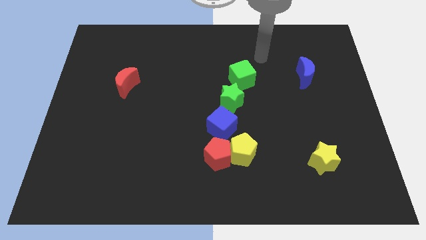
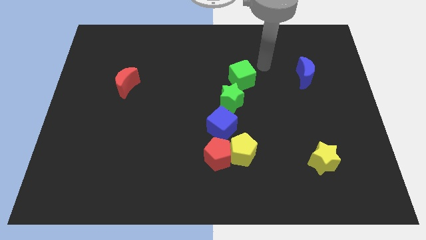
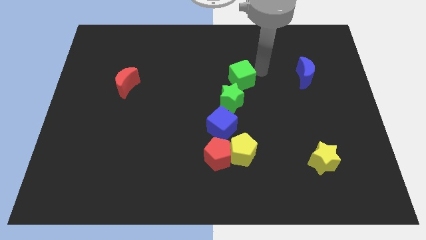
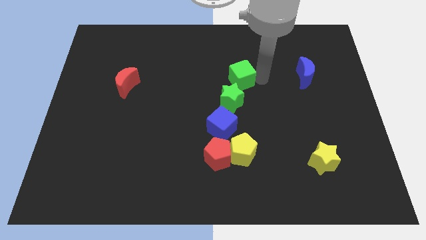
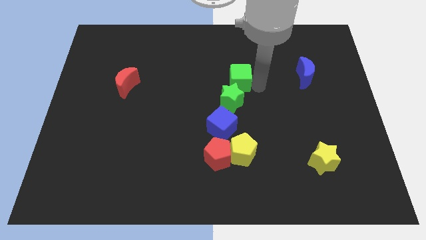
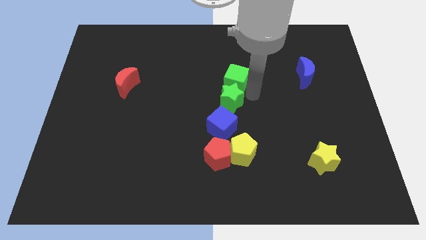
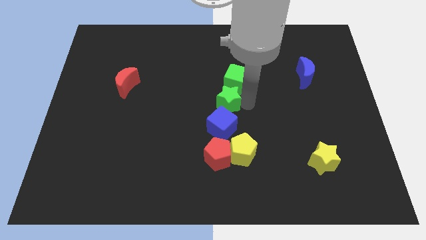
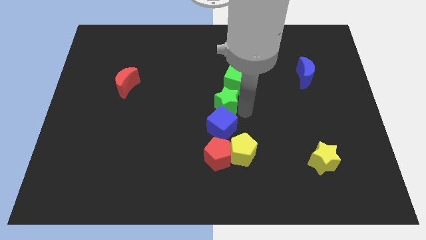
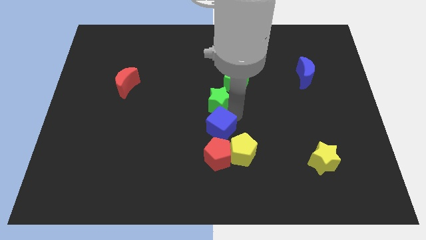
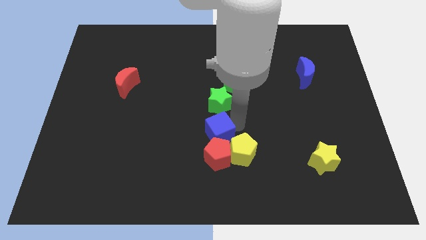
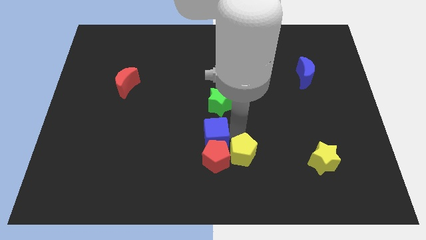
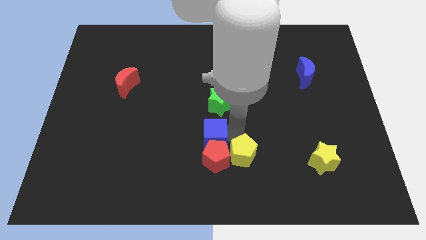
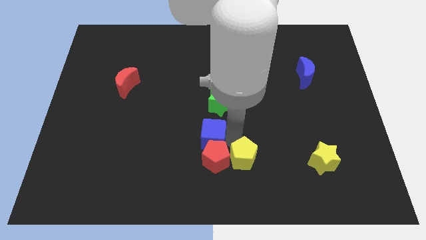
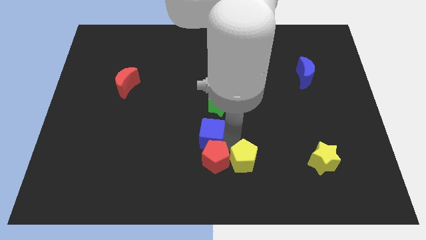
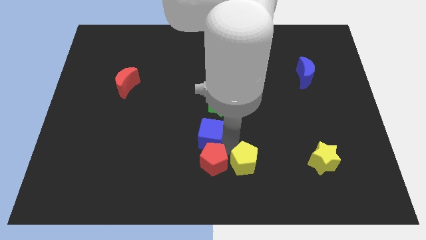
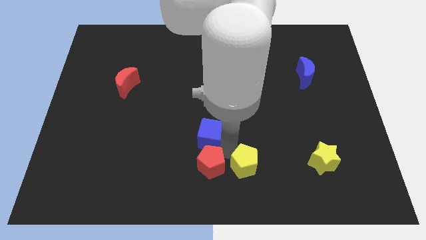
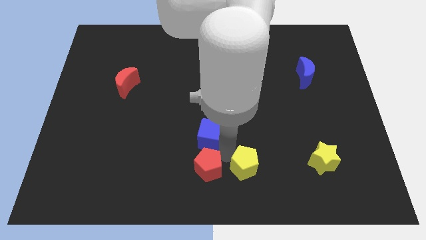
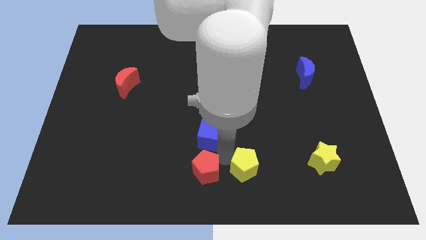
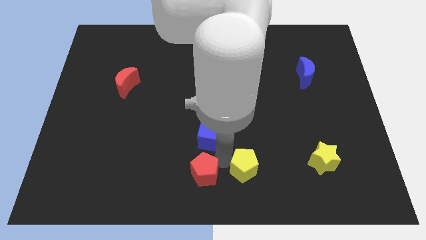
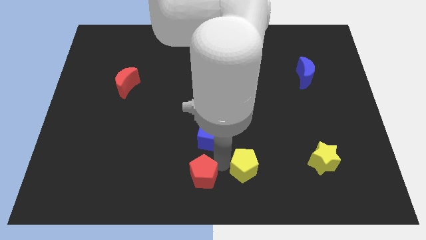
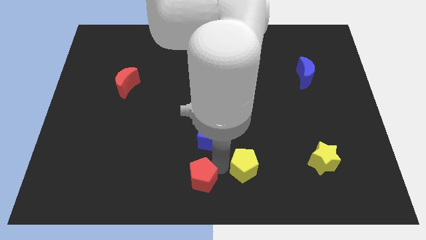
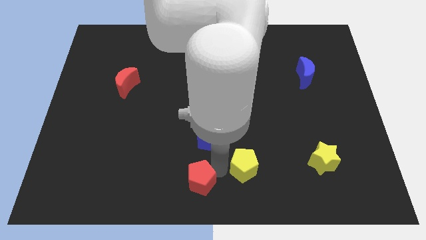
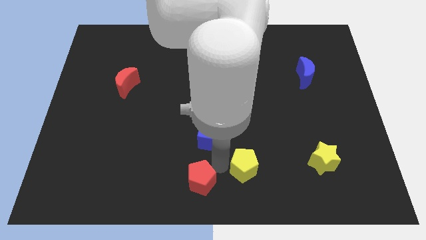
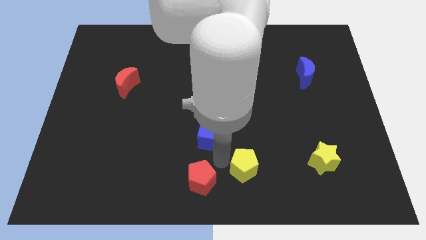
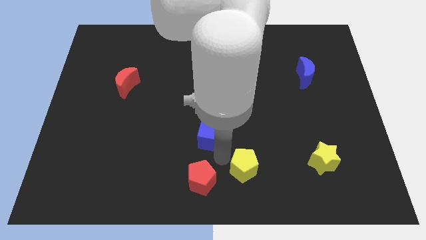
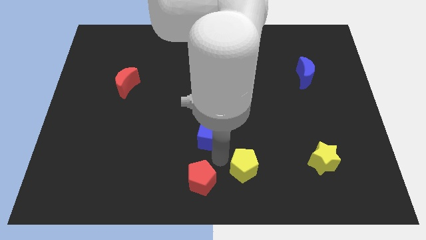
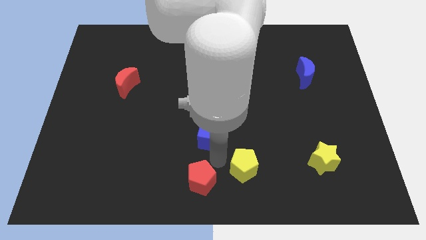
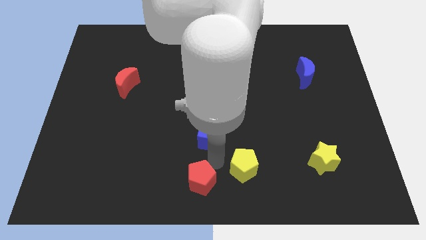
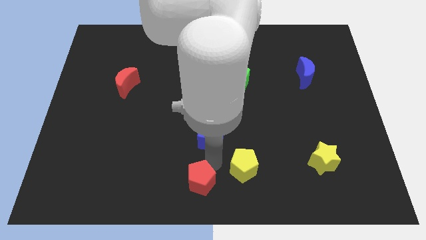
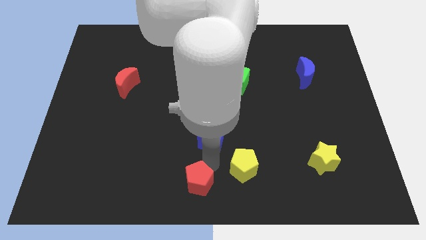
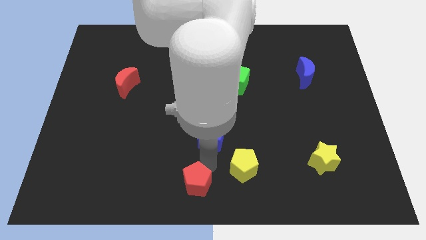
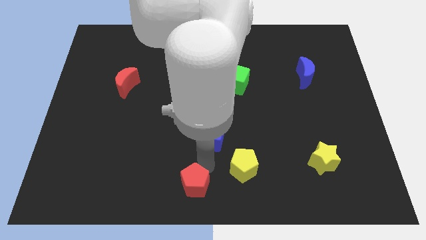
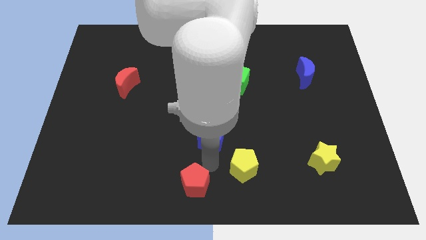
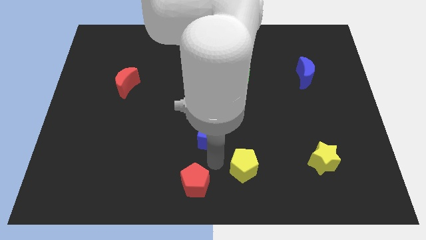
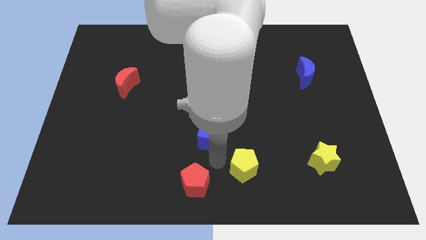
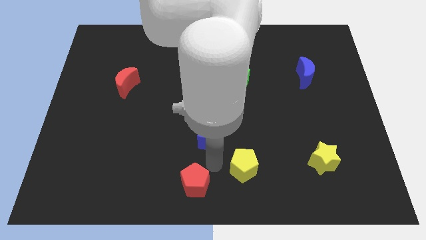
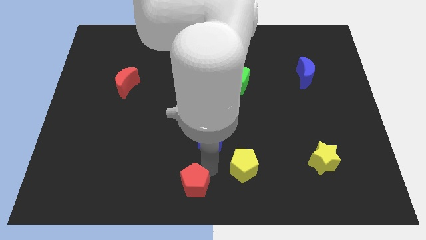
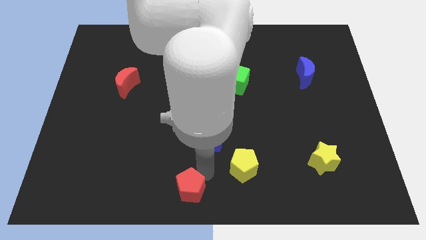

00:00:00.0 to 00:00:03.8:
separate the red pentagon from the yellow pentagon and blue cube

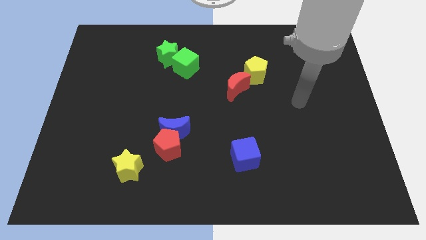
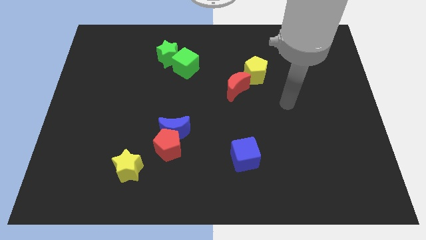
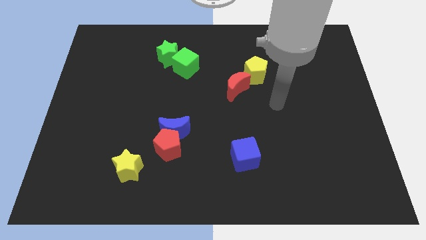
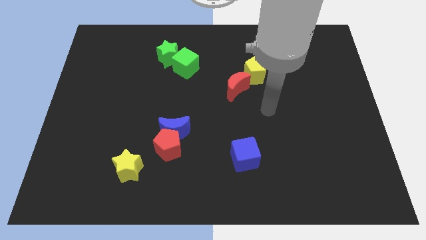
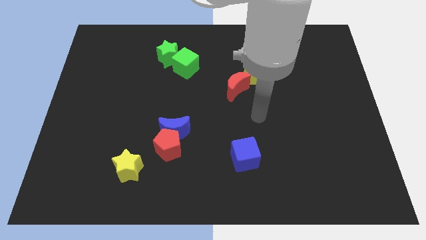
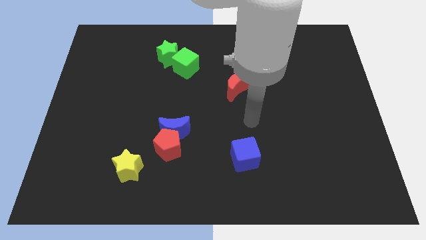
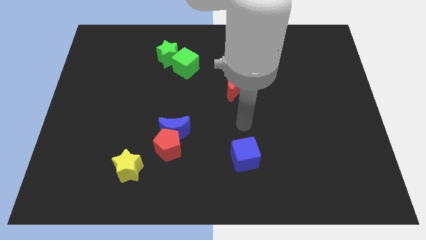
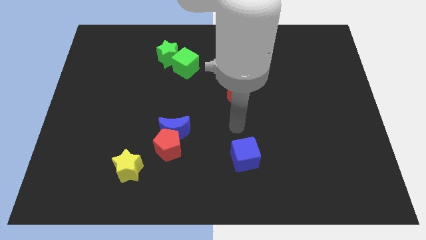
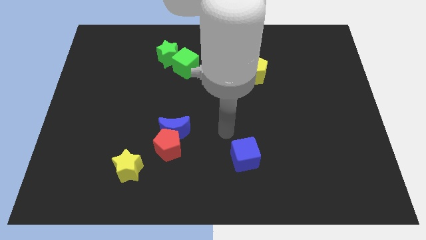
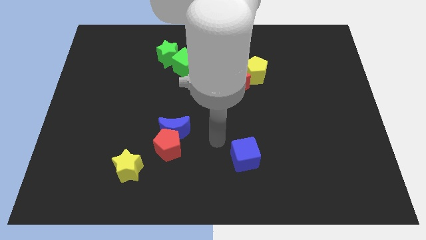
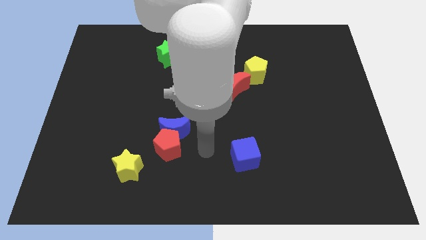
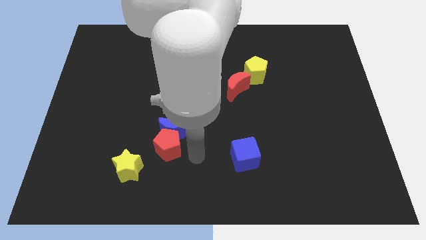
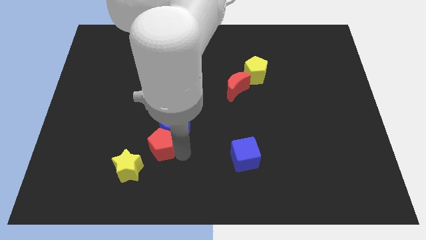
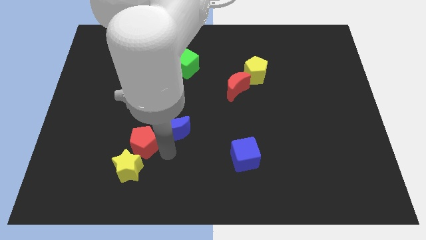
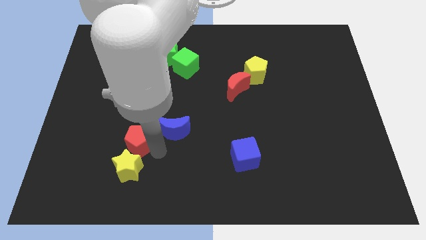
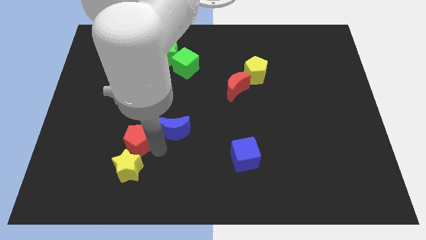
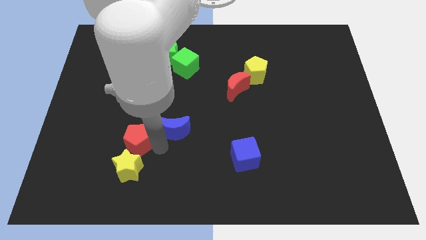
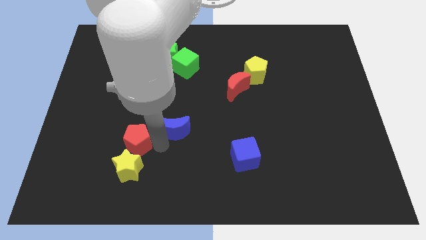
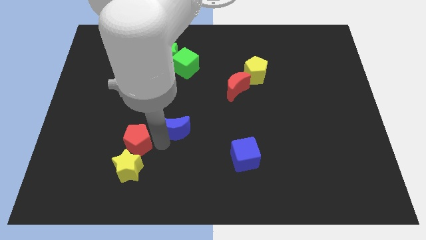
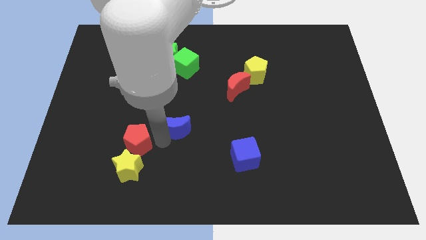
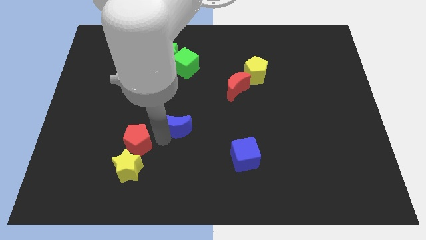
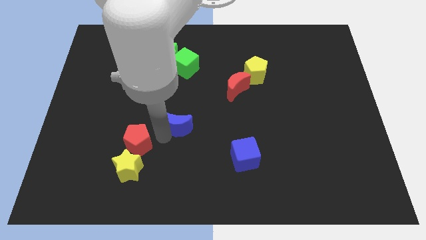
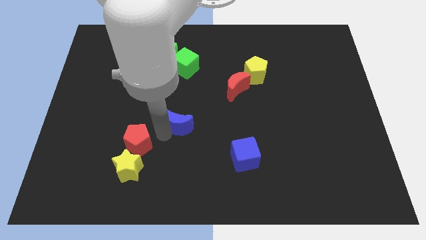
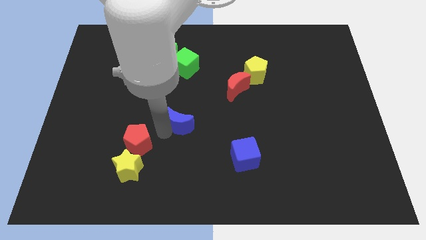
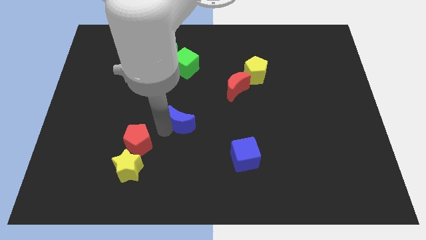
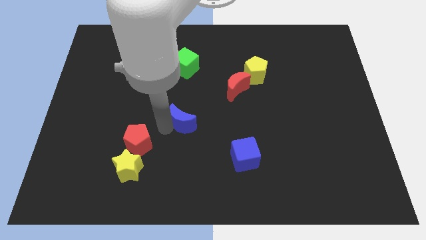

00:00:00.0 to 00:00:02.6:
move the blue moon away from the red pentagon

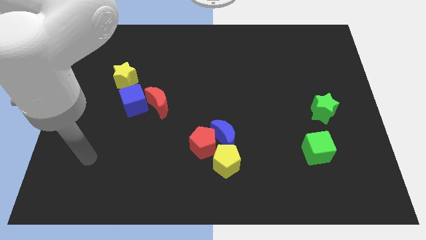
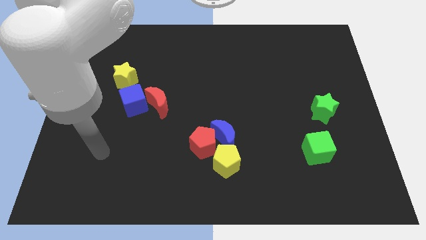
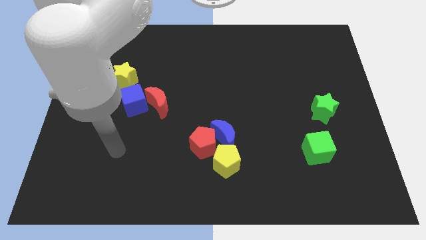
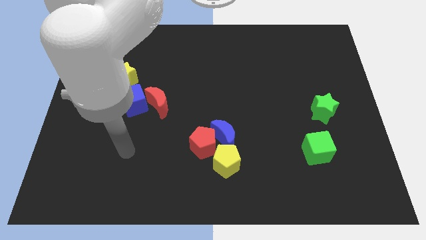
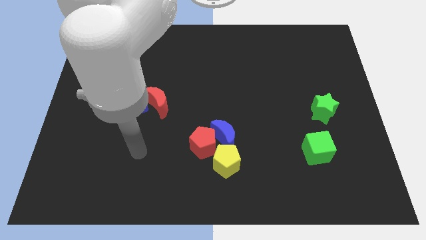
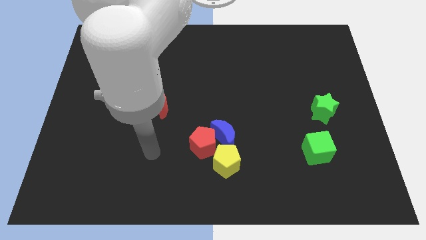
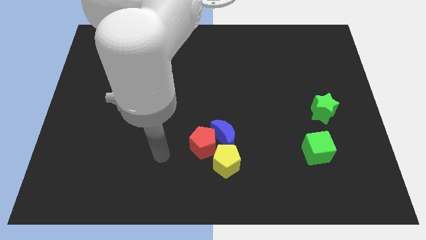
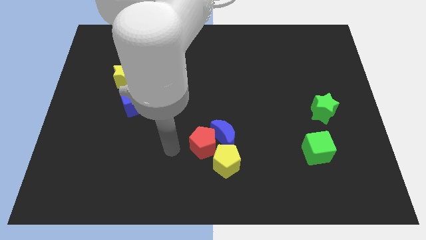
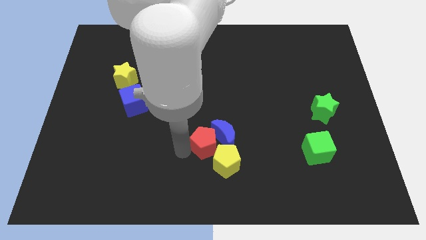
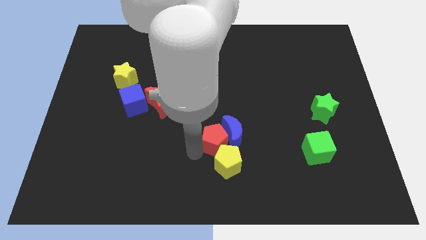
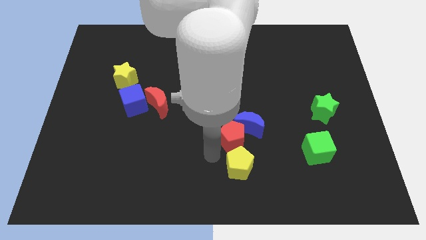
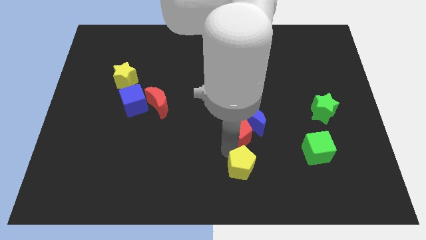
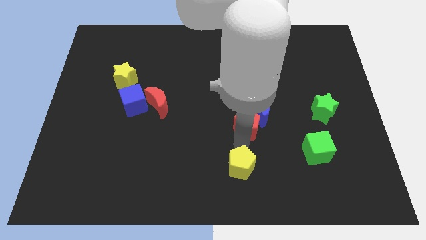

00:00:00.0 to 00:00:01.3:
pull the blue moon apart from the red pentagon and yellow pentagon

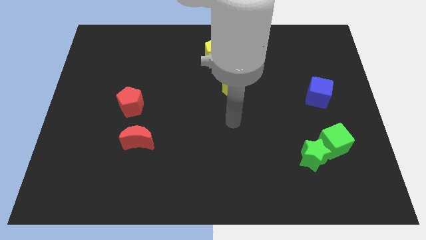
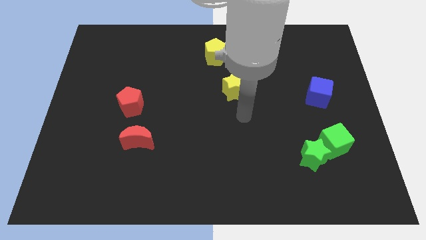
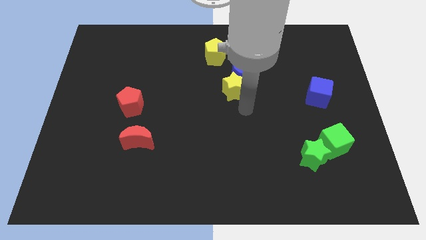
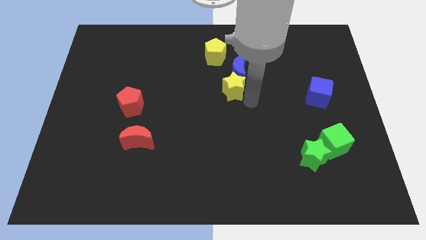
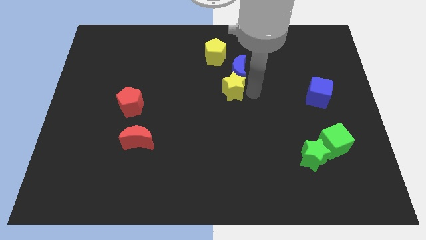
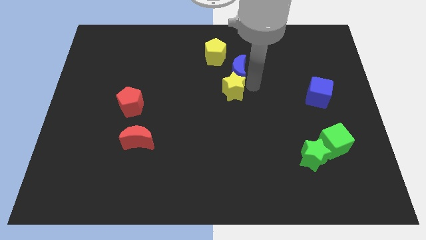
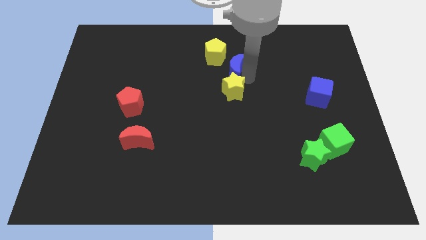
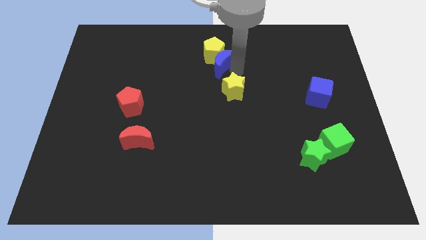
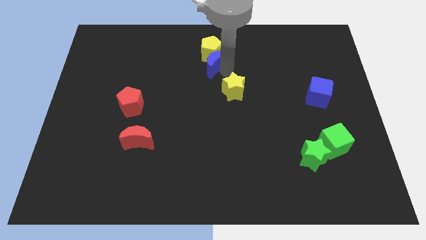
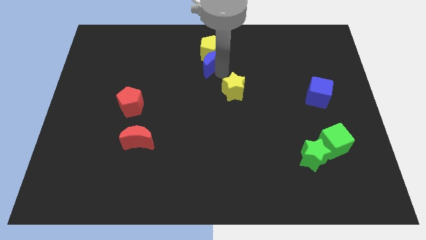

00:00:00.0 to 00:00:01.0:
separate the yellow star from the blue moon

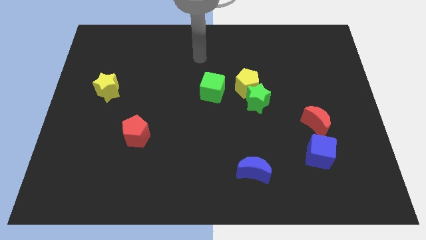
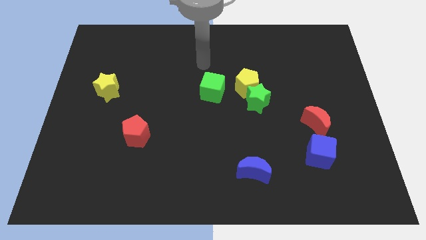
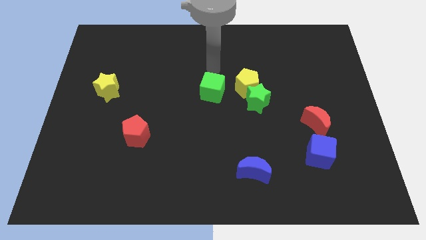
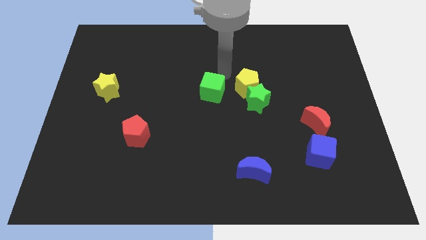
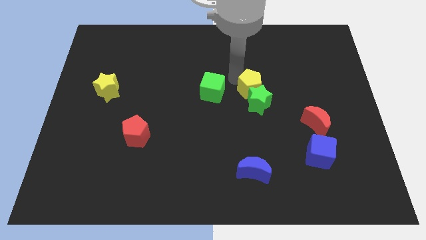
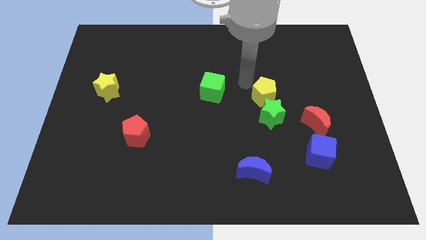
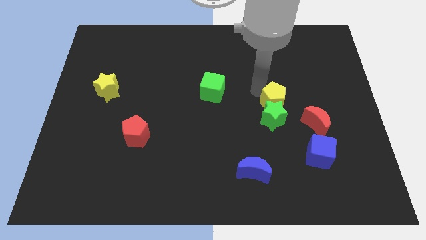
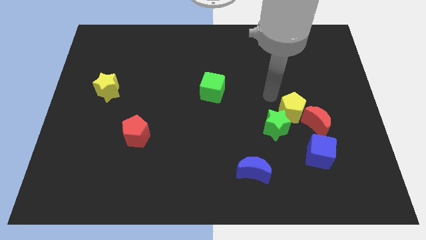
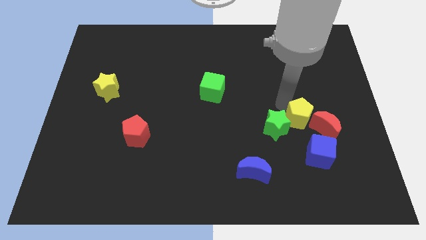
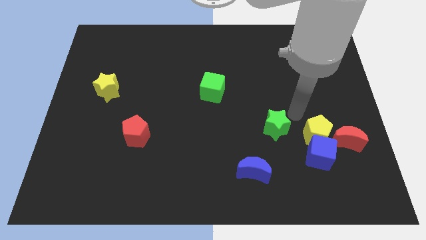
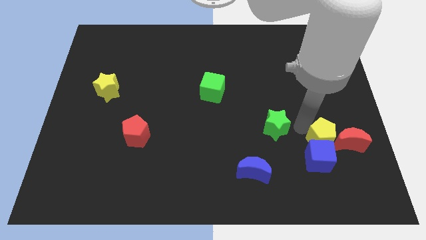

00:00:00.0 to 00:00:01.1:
separate the green star from the yellow pentagon
